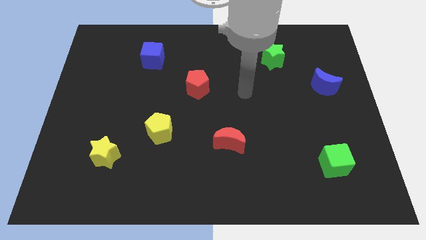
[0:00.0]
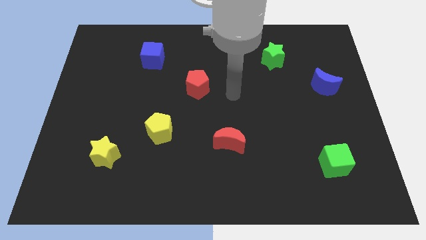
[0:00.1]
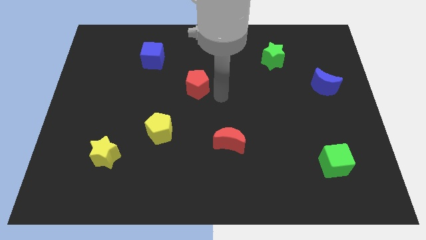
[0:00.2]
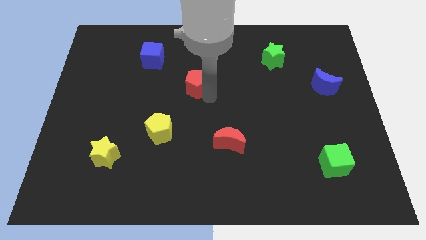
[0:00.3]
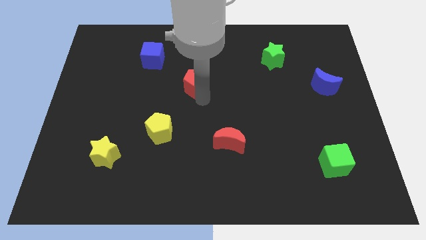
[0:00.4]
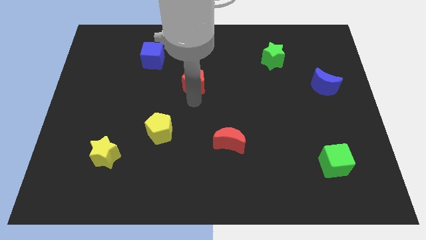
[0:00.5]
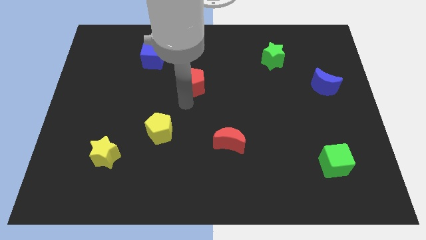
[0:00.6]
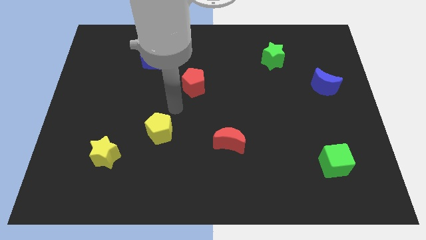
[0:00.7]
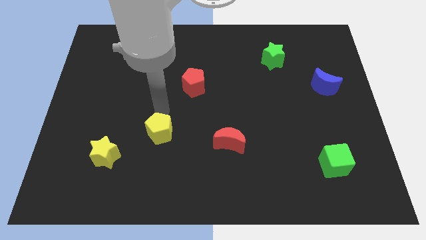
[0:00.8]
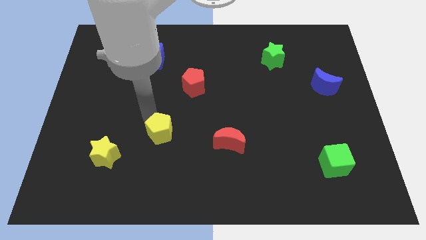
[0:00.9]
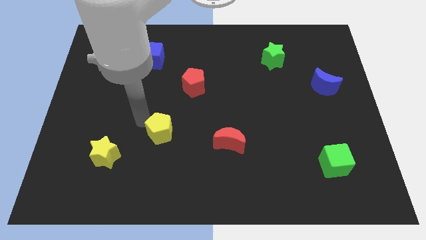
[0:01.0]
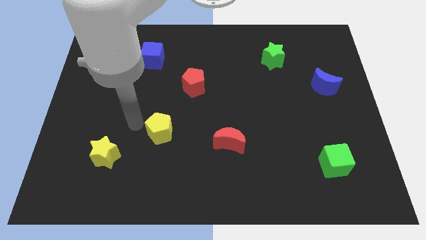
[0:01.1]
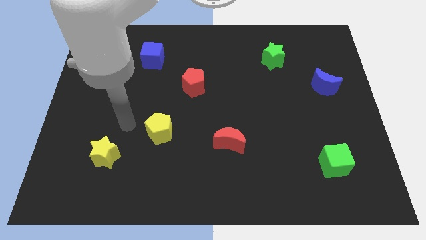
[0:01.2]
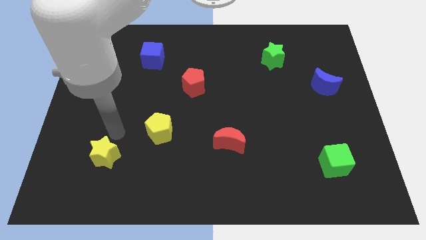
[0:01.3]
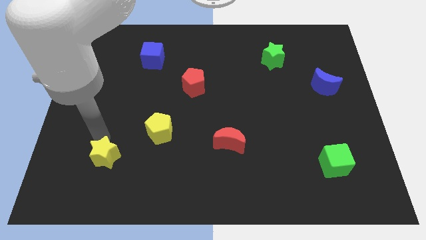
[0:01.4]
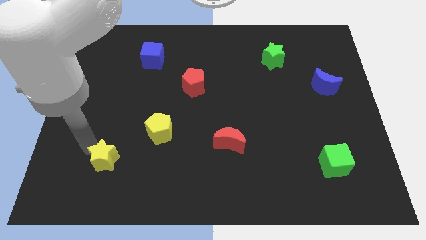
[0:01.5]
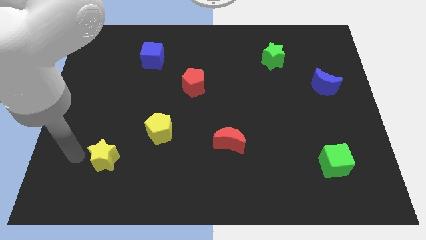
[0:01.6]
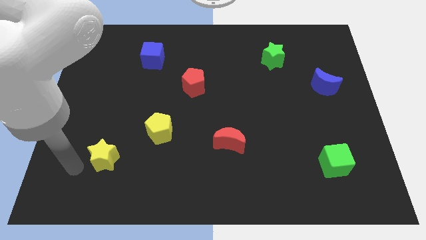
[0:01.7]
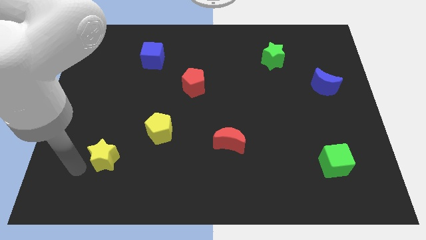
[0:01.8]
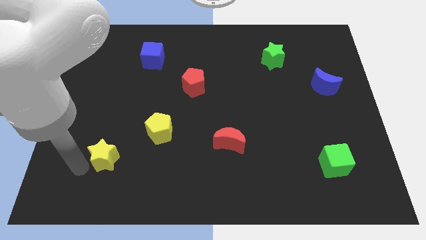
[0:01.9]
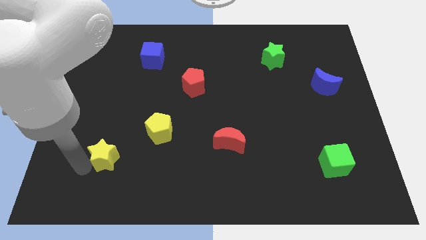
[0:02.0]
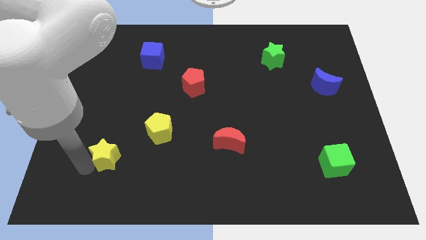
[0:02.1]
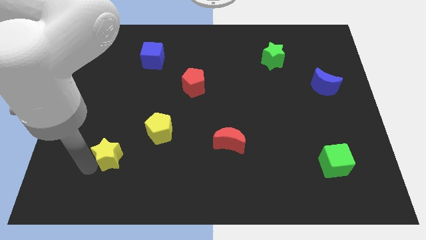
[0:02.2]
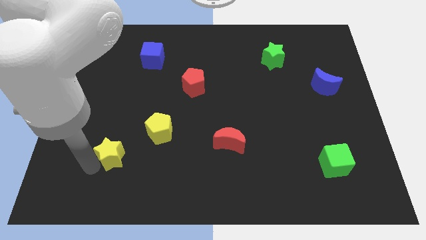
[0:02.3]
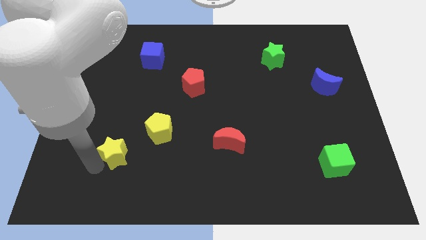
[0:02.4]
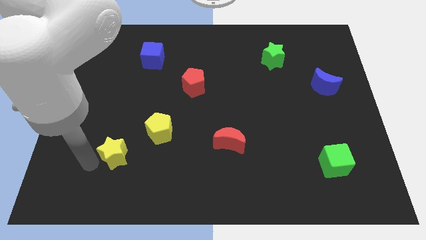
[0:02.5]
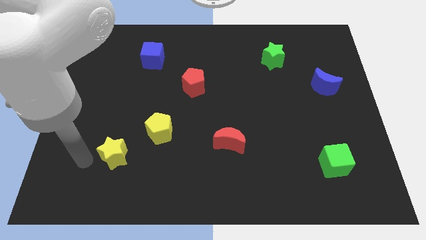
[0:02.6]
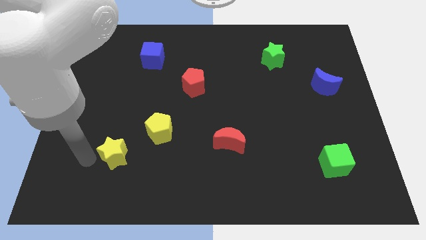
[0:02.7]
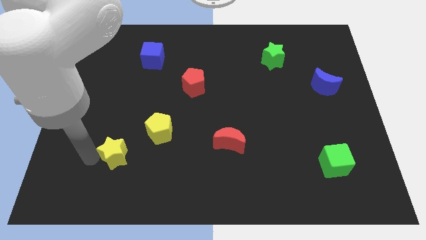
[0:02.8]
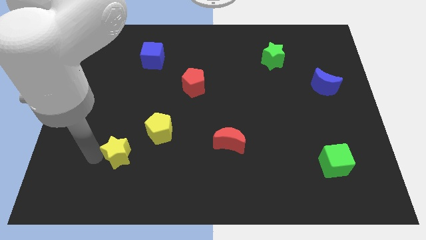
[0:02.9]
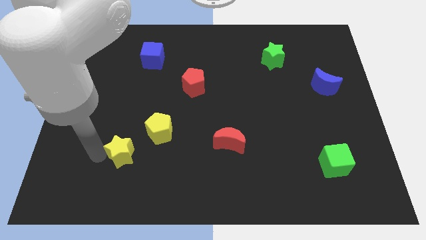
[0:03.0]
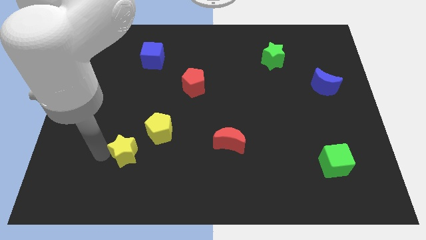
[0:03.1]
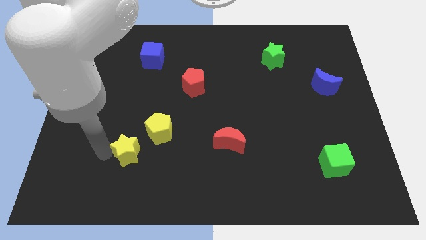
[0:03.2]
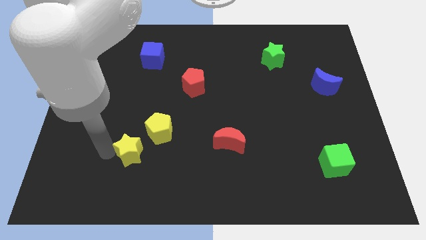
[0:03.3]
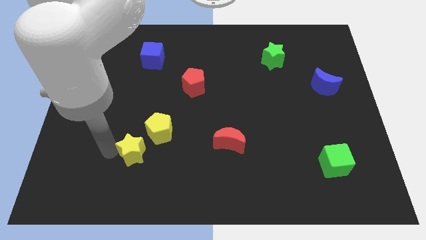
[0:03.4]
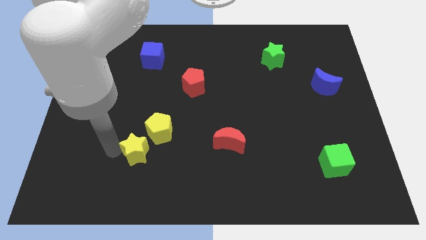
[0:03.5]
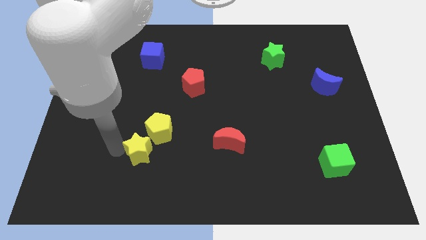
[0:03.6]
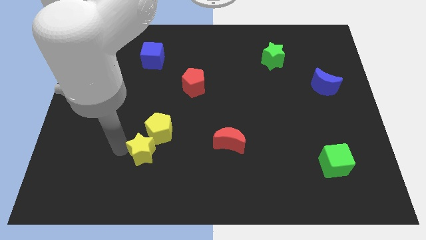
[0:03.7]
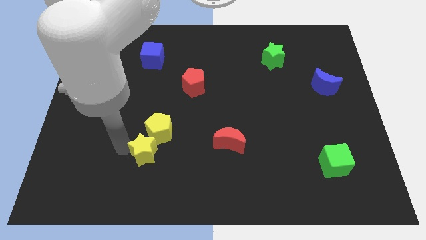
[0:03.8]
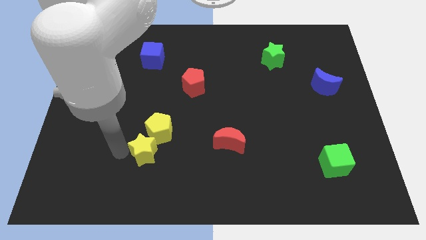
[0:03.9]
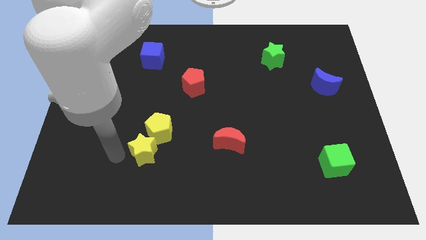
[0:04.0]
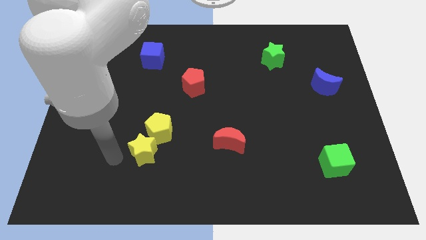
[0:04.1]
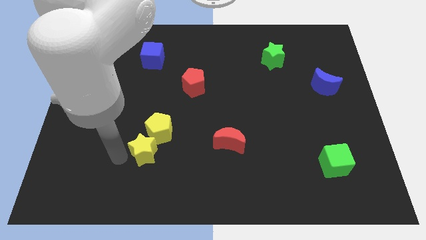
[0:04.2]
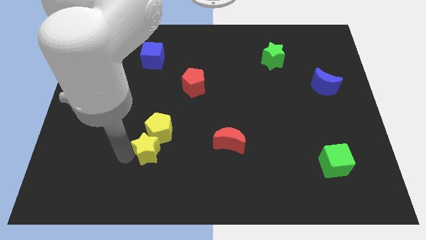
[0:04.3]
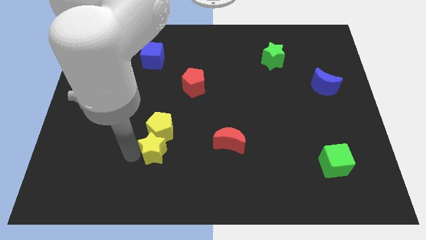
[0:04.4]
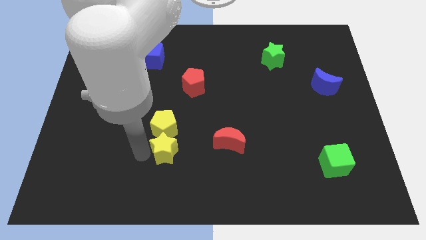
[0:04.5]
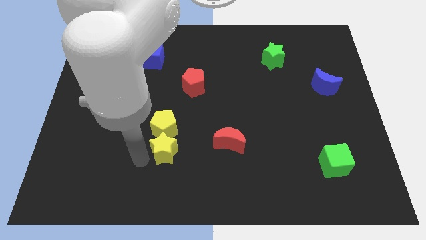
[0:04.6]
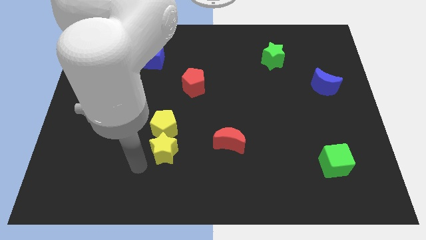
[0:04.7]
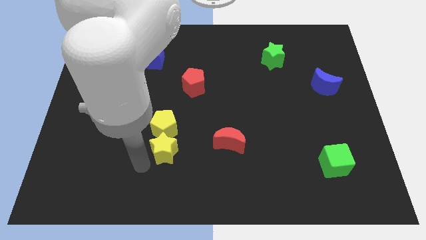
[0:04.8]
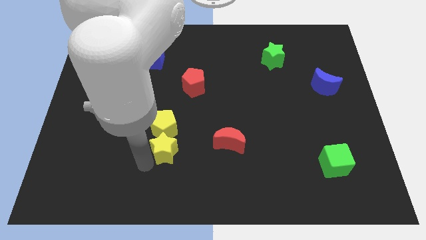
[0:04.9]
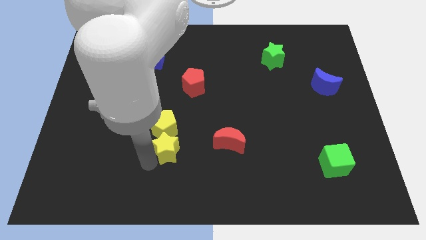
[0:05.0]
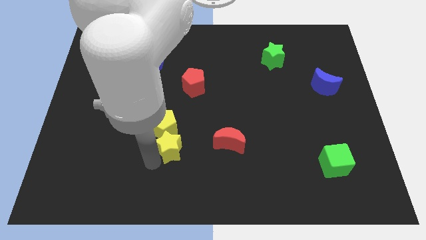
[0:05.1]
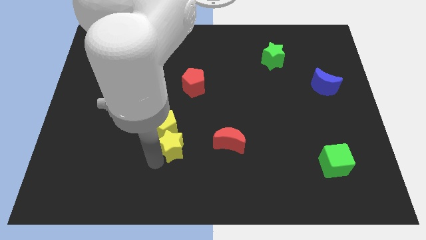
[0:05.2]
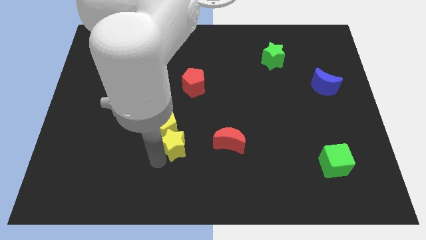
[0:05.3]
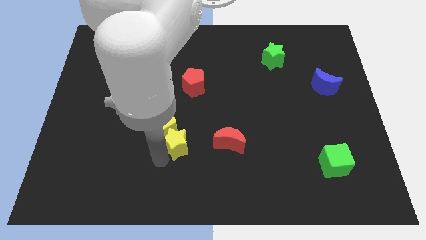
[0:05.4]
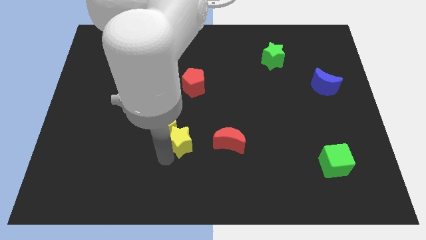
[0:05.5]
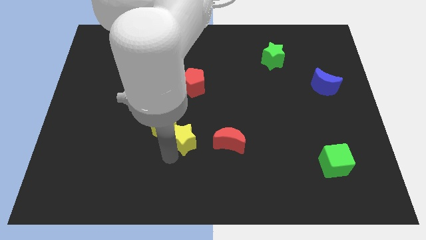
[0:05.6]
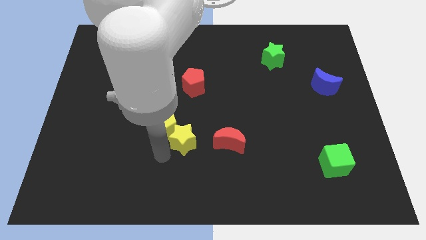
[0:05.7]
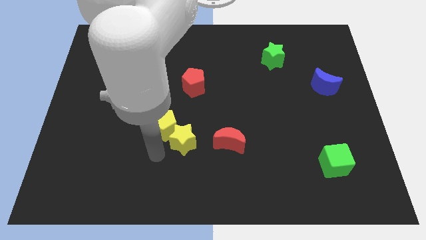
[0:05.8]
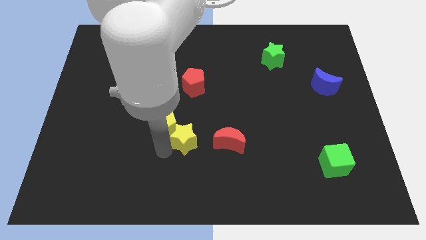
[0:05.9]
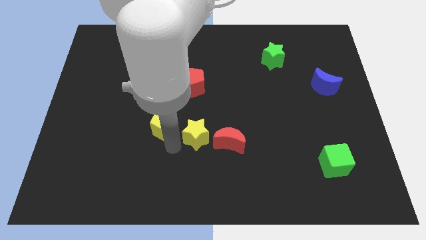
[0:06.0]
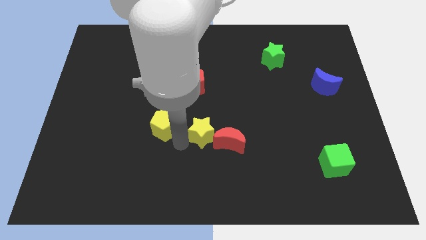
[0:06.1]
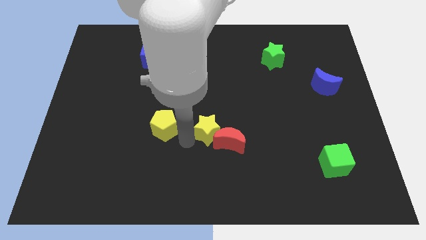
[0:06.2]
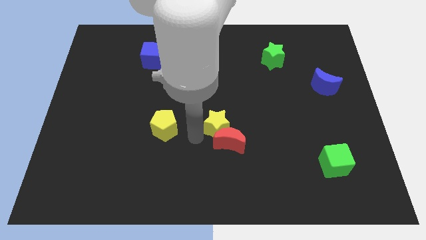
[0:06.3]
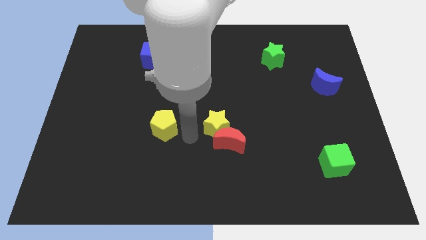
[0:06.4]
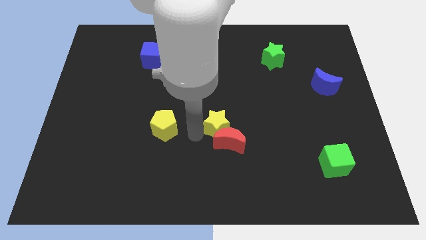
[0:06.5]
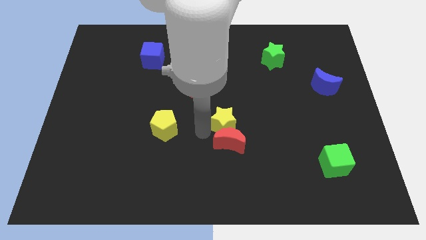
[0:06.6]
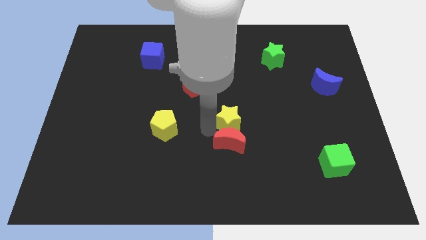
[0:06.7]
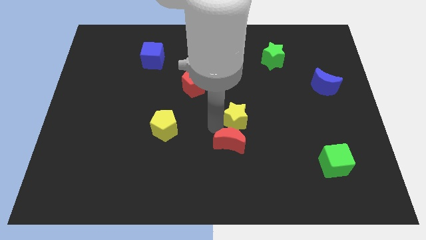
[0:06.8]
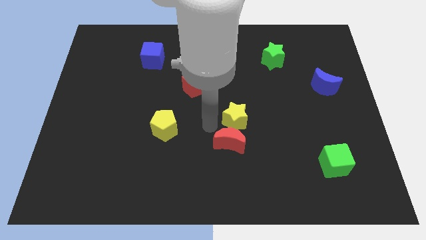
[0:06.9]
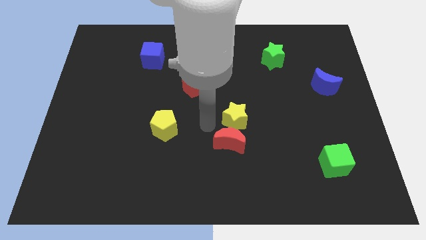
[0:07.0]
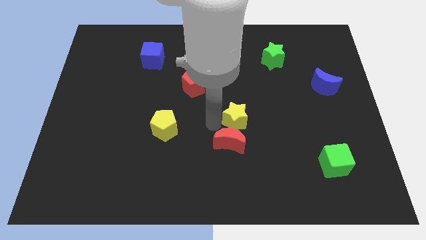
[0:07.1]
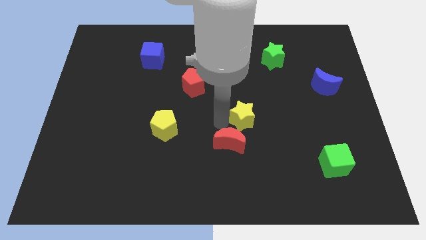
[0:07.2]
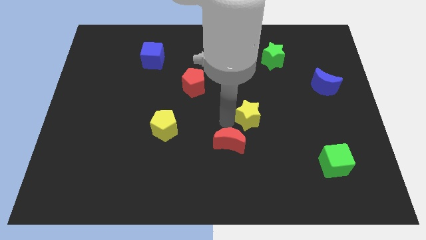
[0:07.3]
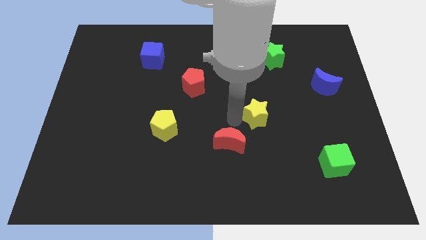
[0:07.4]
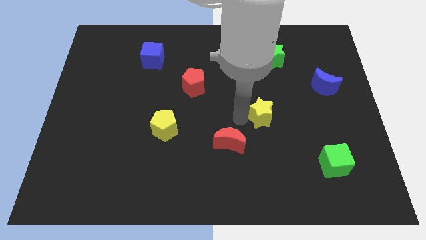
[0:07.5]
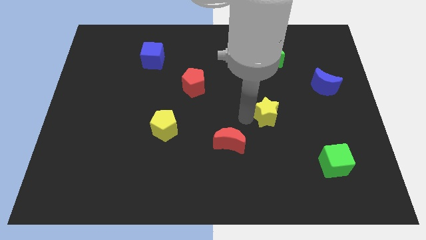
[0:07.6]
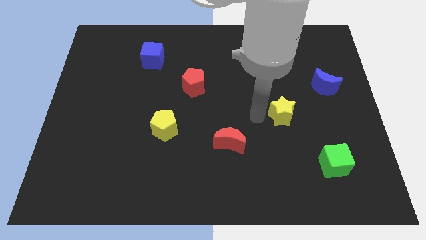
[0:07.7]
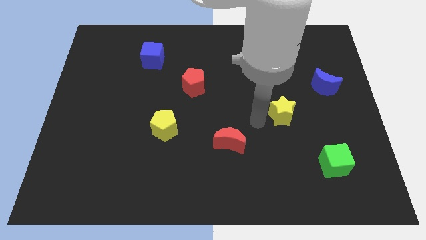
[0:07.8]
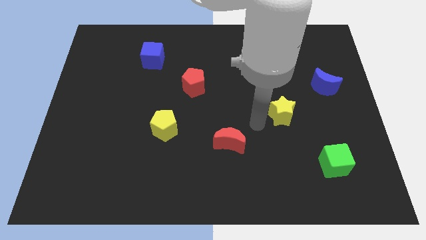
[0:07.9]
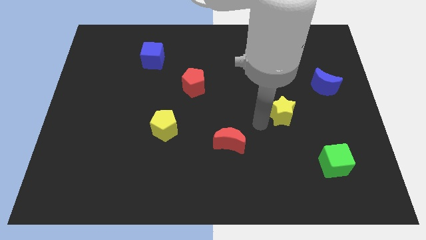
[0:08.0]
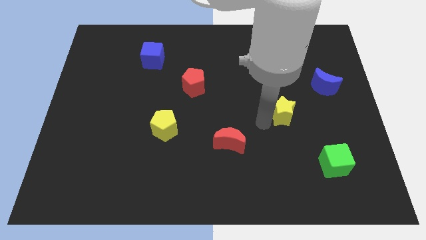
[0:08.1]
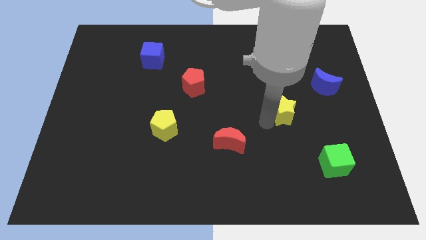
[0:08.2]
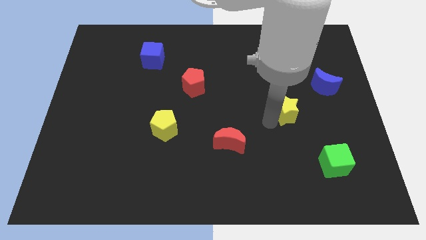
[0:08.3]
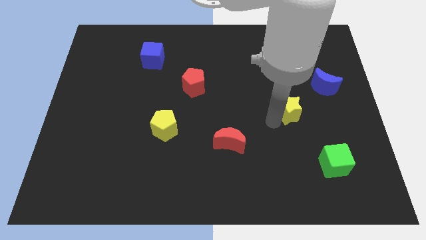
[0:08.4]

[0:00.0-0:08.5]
slide the yellow star to the bottom left of the blue moon
